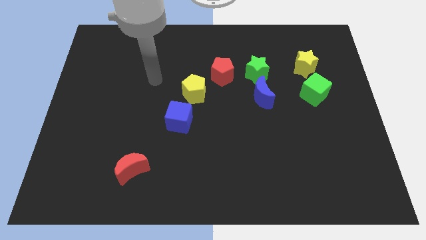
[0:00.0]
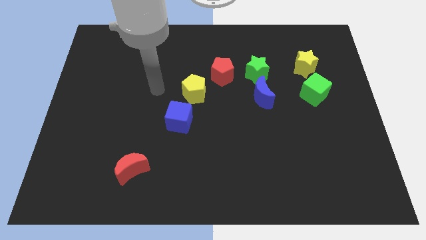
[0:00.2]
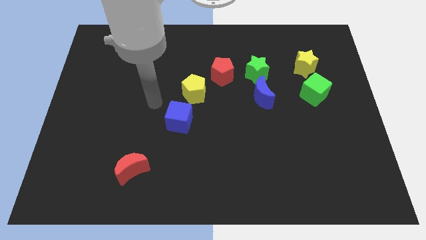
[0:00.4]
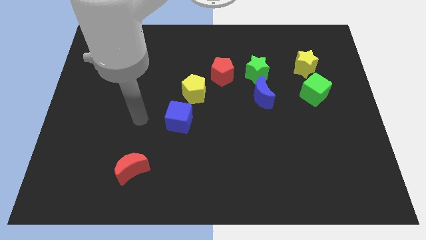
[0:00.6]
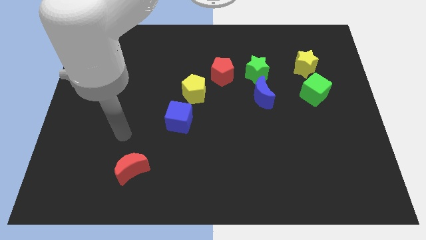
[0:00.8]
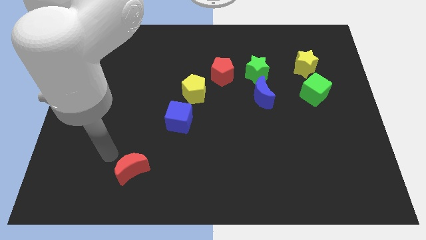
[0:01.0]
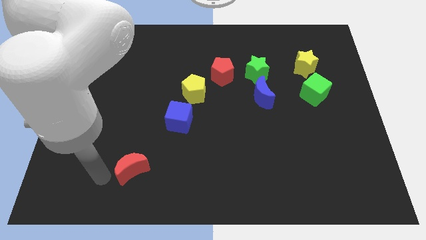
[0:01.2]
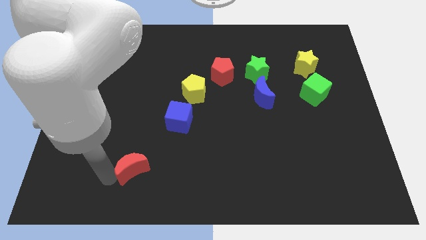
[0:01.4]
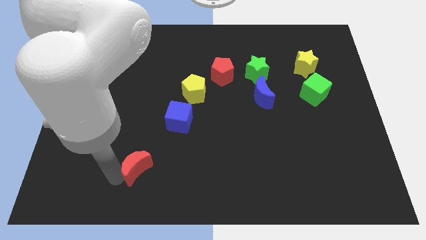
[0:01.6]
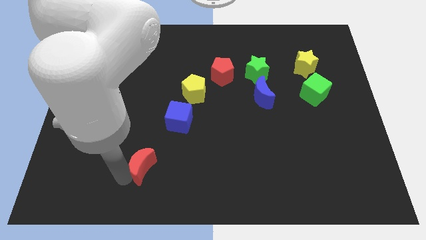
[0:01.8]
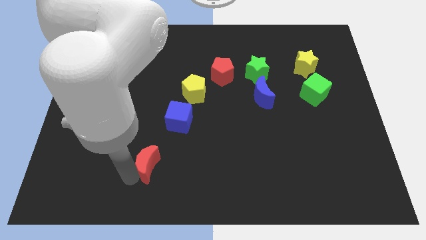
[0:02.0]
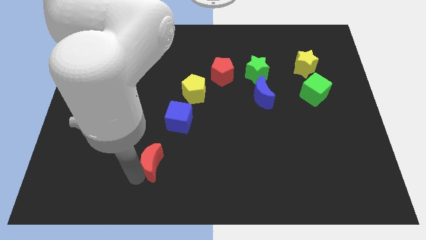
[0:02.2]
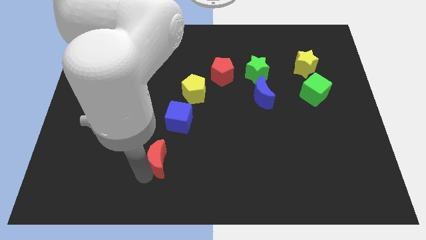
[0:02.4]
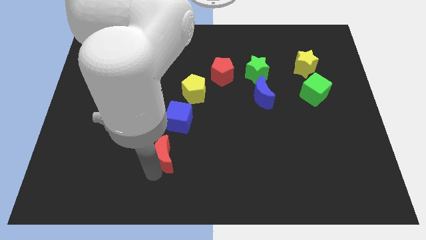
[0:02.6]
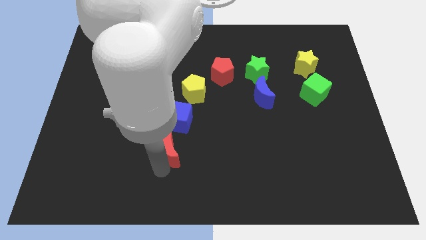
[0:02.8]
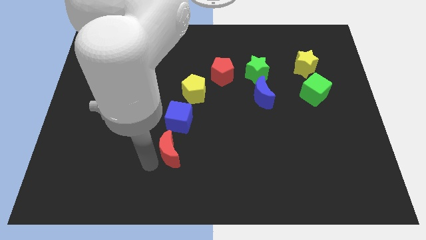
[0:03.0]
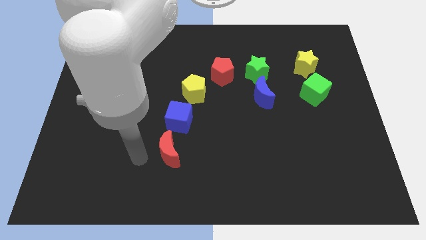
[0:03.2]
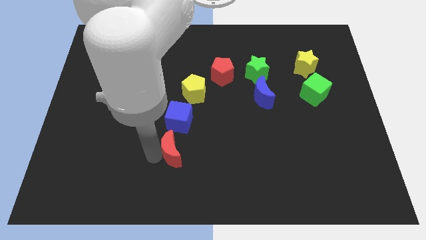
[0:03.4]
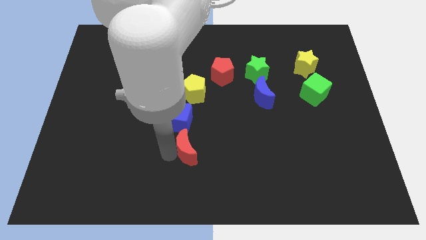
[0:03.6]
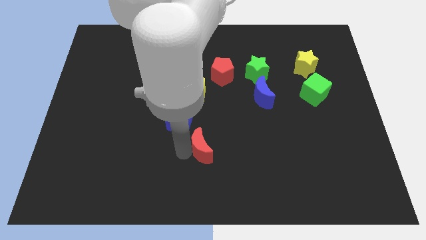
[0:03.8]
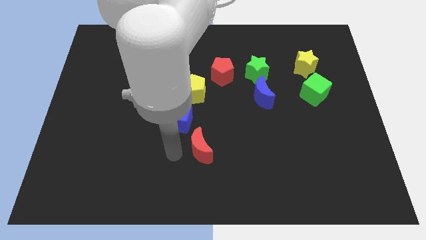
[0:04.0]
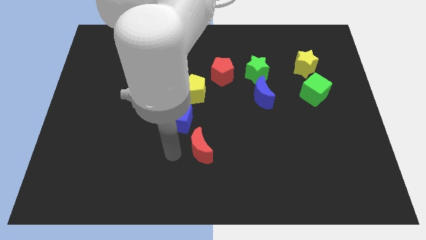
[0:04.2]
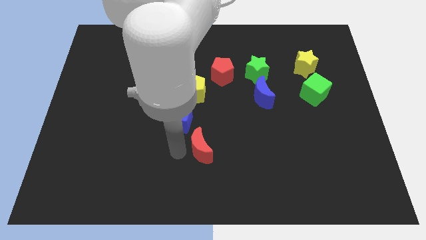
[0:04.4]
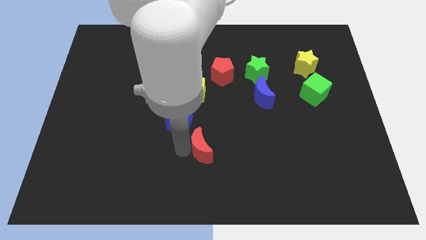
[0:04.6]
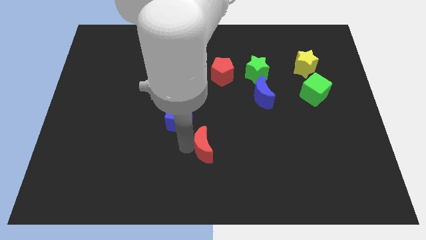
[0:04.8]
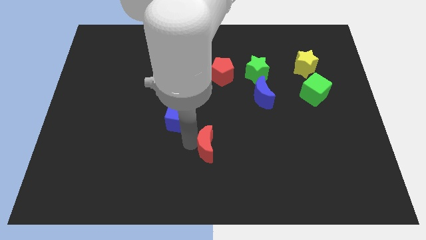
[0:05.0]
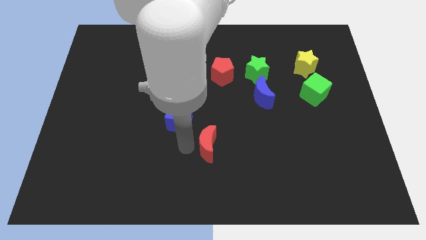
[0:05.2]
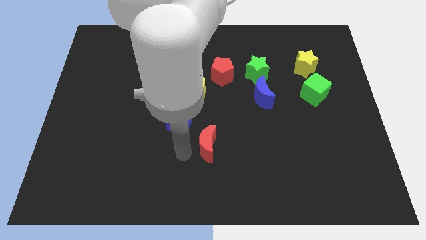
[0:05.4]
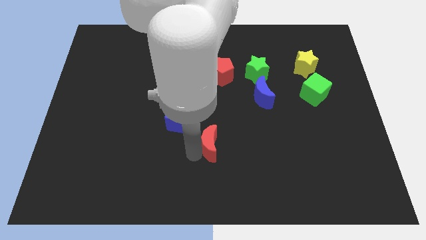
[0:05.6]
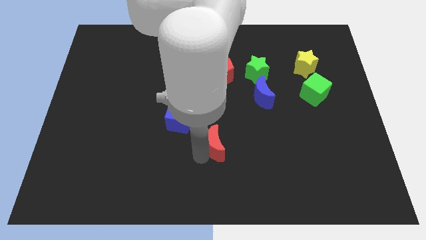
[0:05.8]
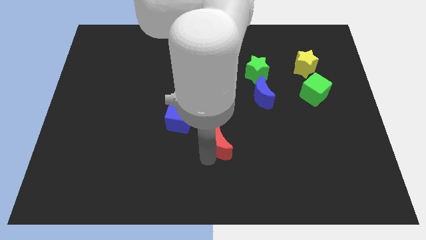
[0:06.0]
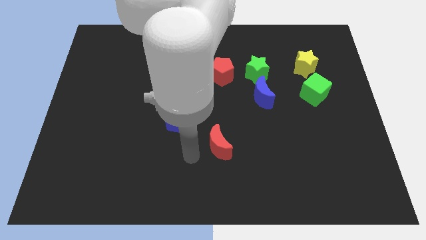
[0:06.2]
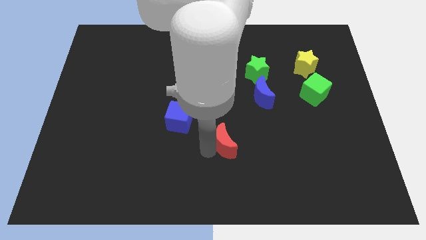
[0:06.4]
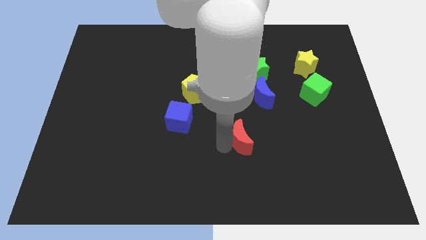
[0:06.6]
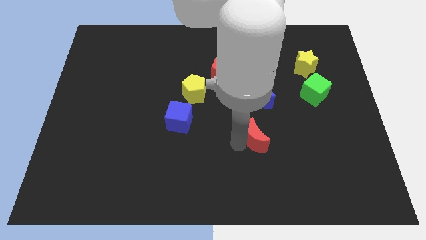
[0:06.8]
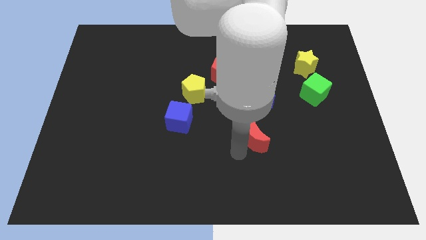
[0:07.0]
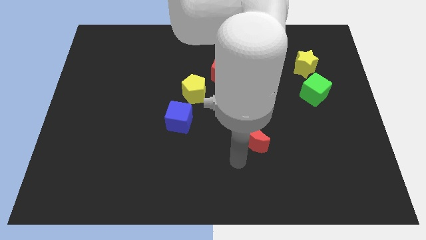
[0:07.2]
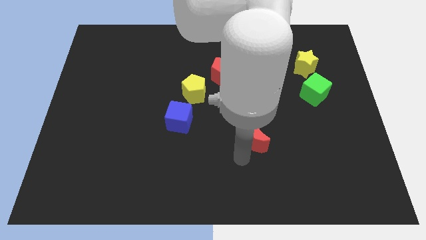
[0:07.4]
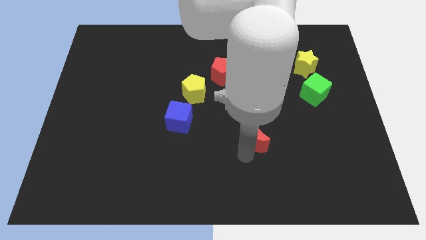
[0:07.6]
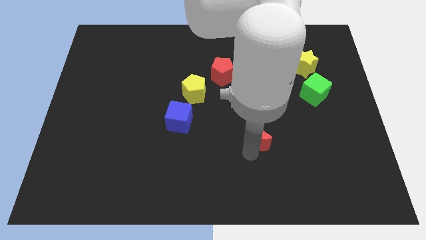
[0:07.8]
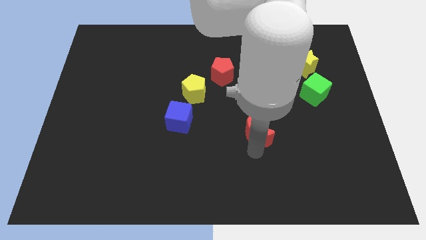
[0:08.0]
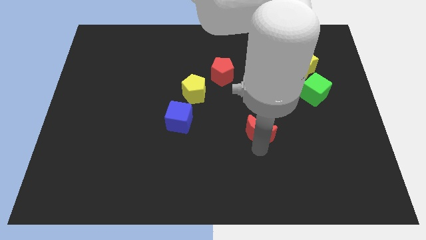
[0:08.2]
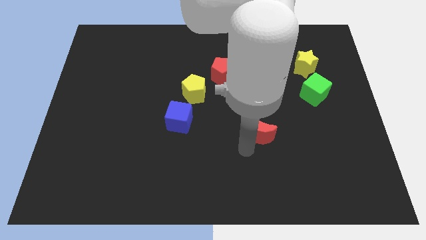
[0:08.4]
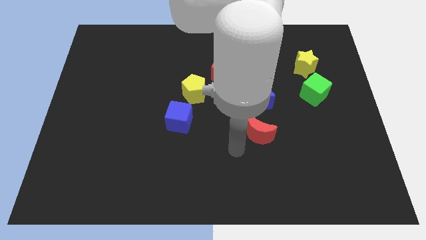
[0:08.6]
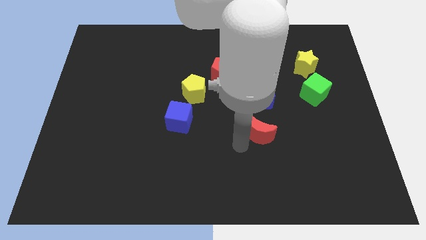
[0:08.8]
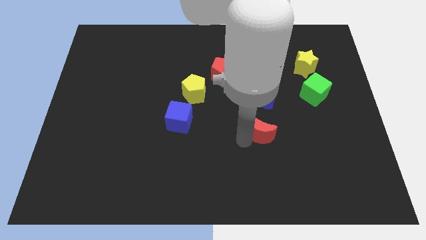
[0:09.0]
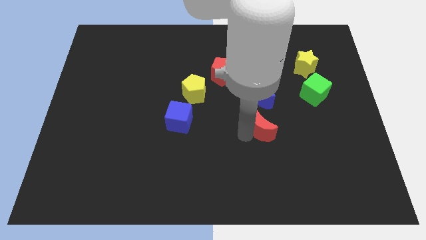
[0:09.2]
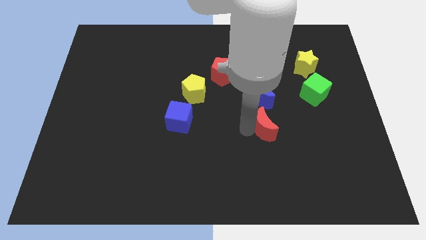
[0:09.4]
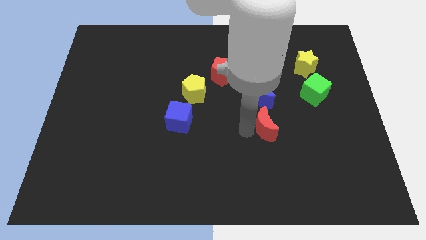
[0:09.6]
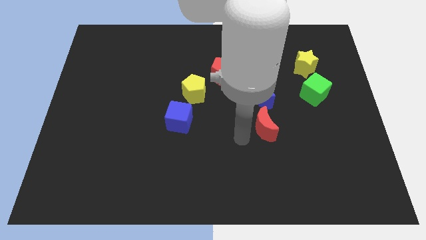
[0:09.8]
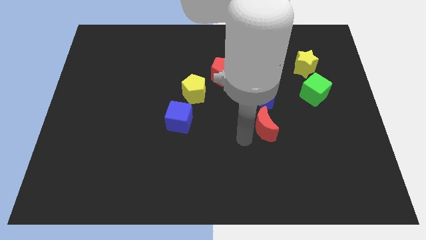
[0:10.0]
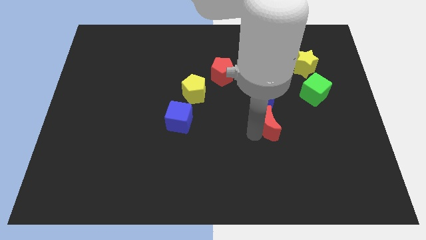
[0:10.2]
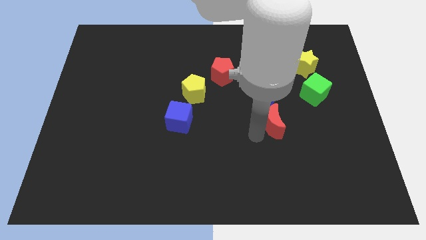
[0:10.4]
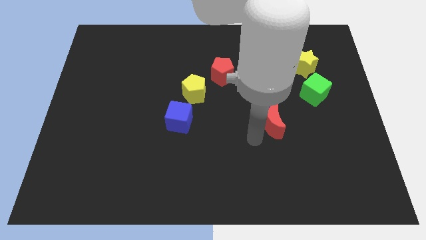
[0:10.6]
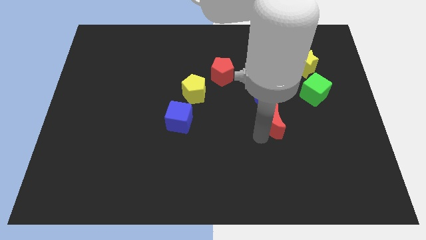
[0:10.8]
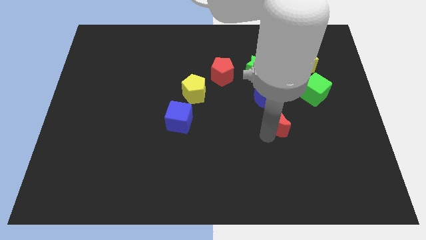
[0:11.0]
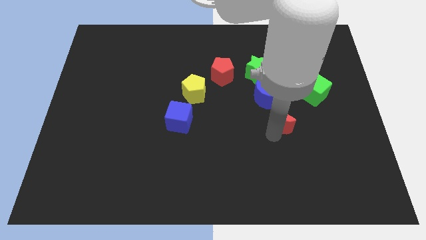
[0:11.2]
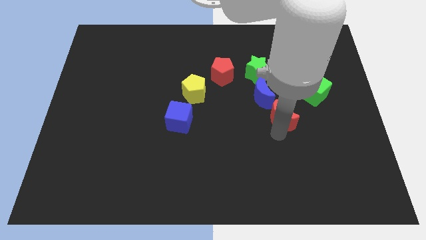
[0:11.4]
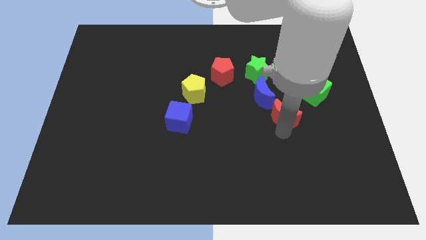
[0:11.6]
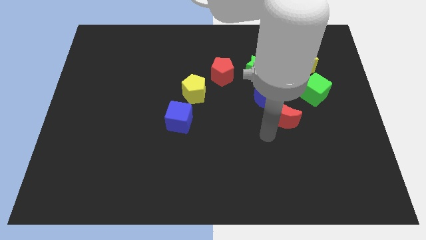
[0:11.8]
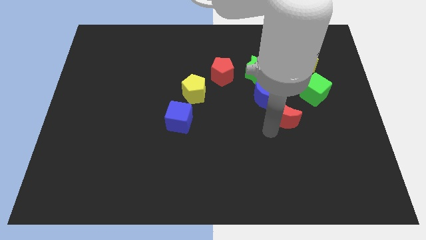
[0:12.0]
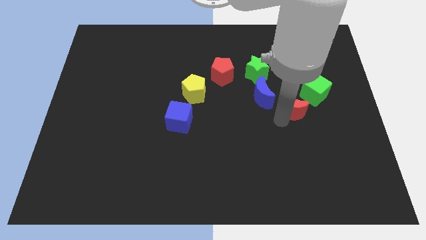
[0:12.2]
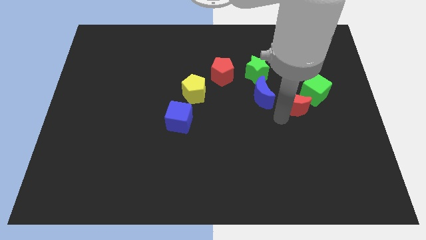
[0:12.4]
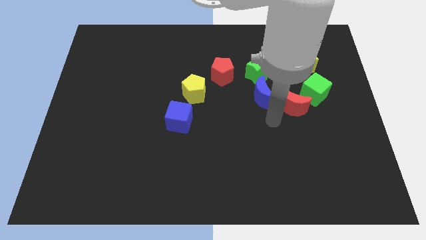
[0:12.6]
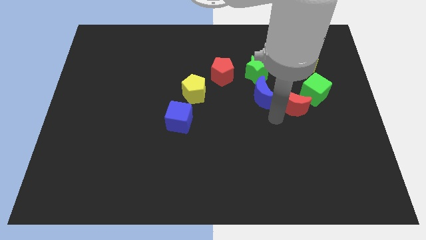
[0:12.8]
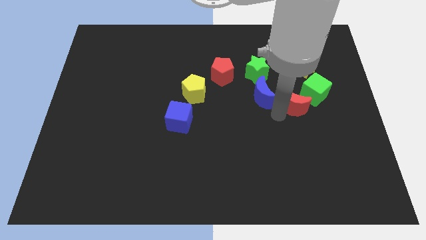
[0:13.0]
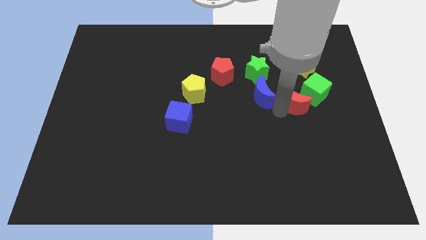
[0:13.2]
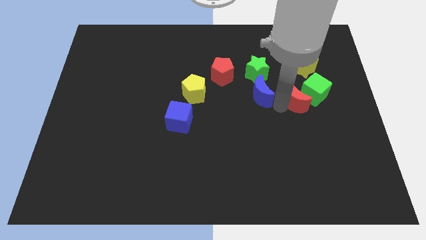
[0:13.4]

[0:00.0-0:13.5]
move the red moon close to the green cube

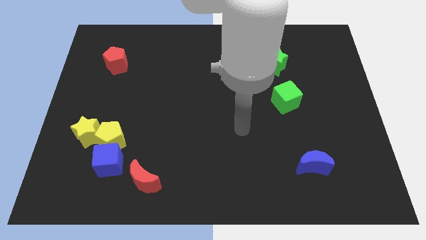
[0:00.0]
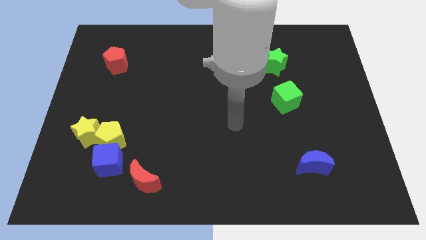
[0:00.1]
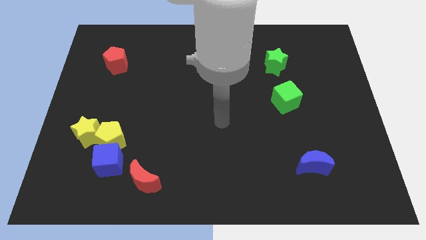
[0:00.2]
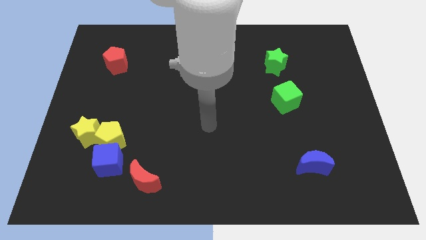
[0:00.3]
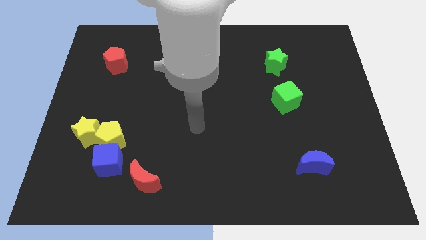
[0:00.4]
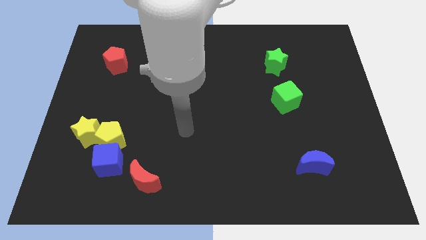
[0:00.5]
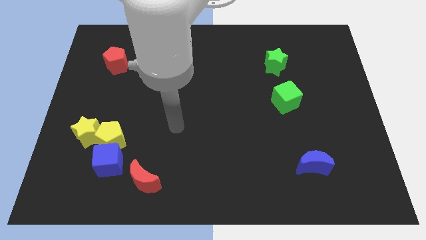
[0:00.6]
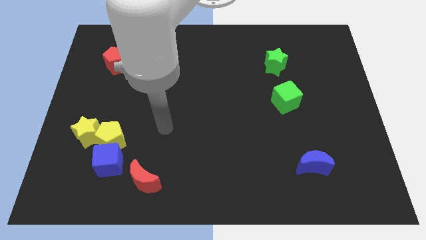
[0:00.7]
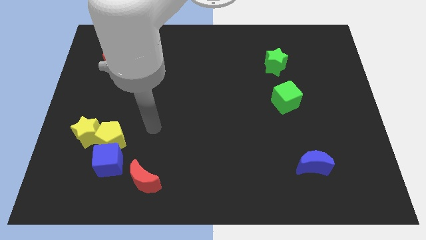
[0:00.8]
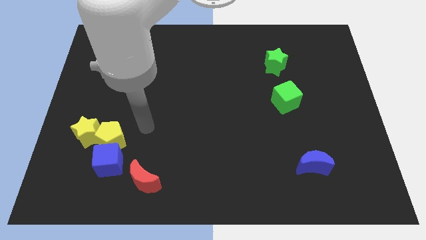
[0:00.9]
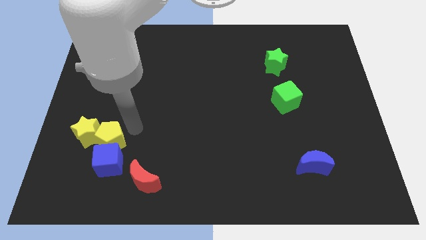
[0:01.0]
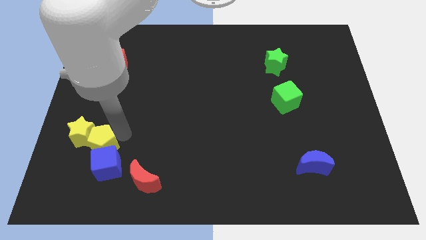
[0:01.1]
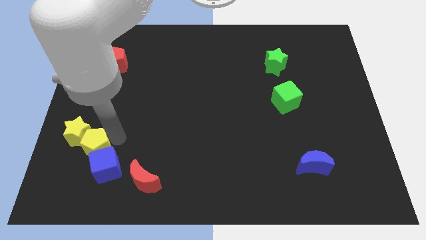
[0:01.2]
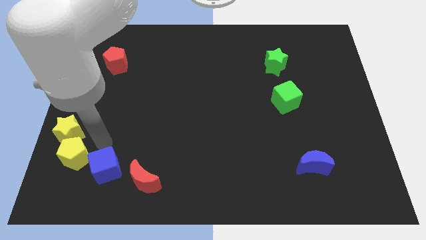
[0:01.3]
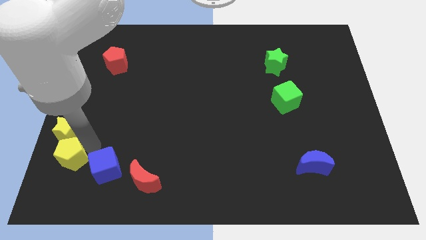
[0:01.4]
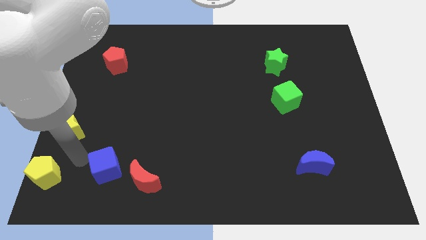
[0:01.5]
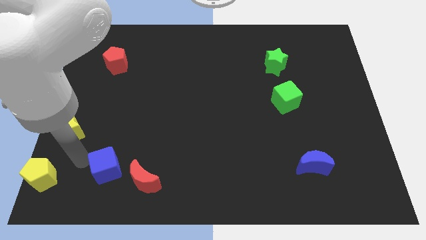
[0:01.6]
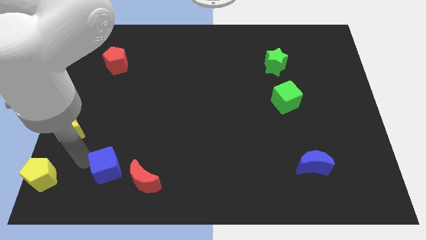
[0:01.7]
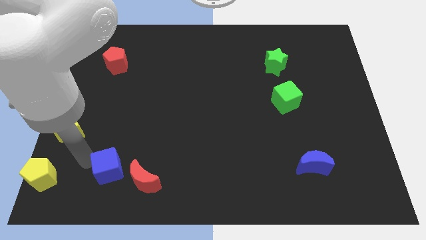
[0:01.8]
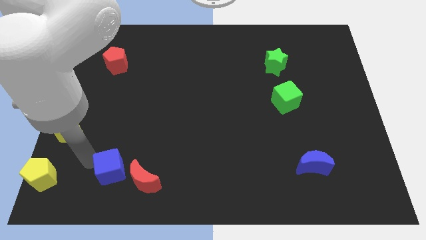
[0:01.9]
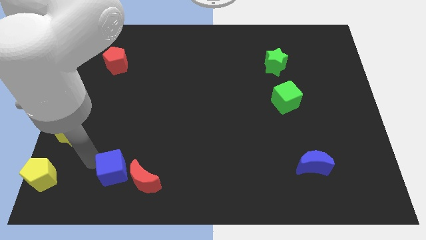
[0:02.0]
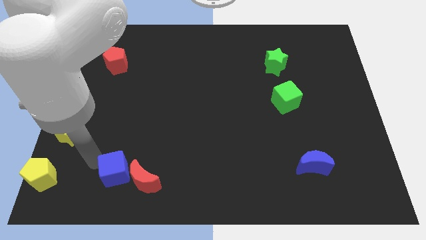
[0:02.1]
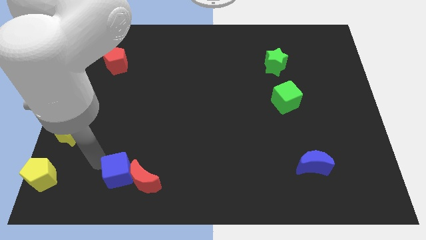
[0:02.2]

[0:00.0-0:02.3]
slide the blue cube to the red moon
